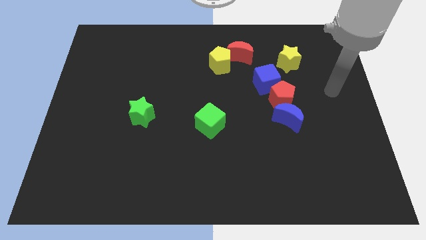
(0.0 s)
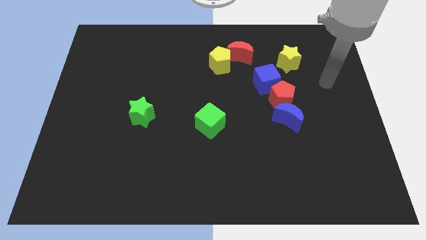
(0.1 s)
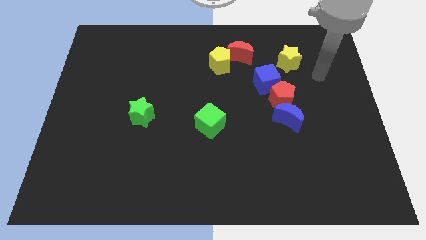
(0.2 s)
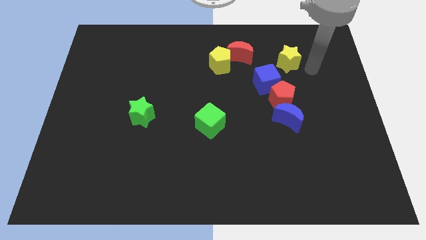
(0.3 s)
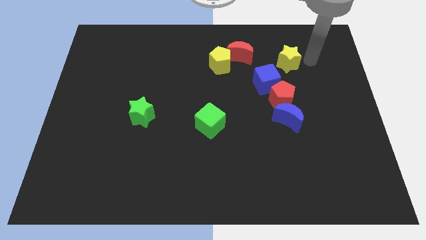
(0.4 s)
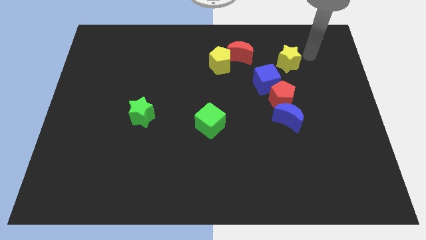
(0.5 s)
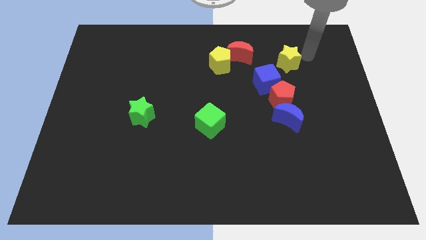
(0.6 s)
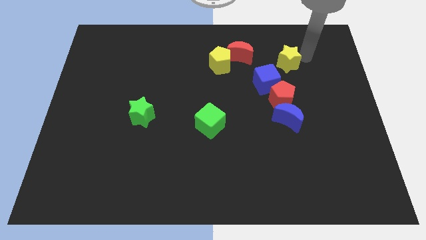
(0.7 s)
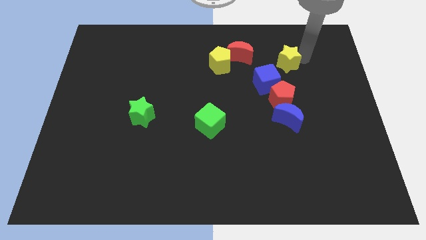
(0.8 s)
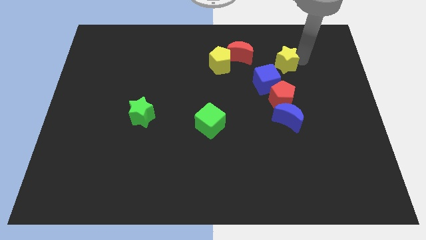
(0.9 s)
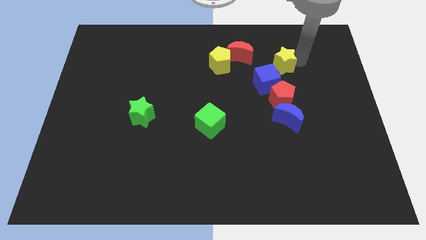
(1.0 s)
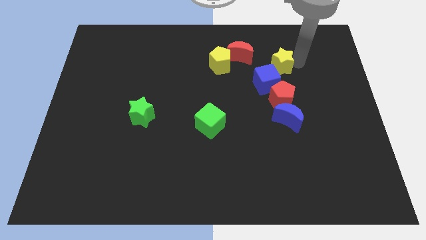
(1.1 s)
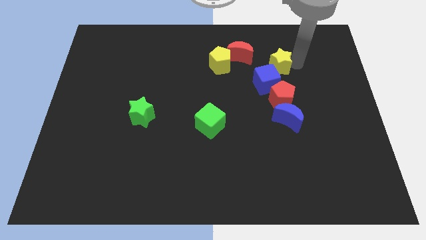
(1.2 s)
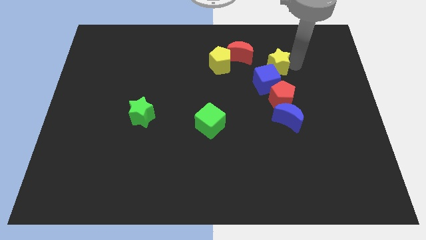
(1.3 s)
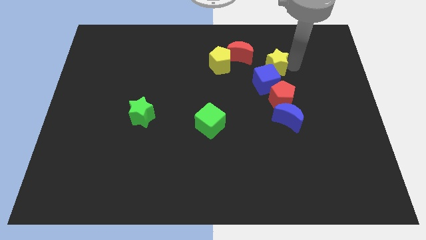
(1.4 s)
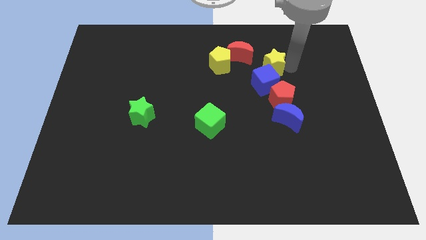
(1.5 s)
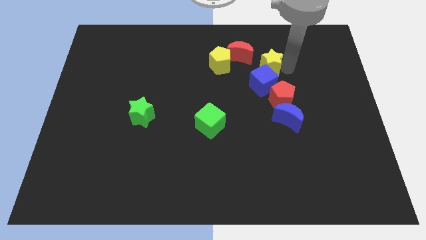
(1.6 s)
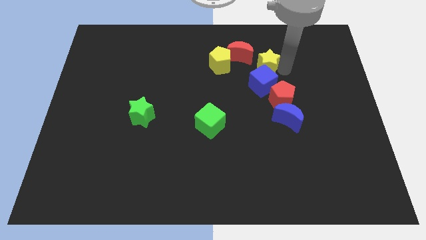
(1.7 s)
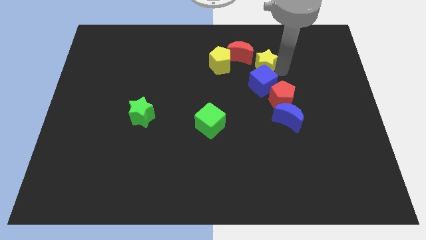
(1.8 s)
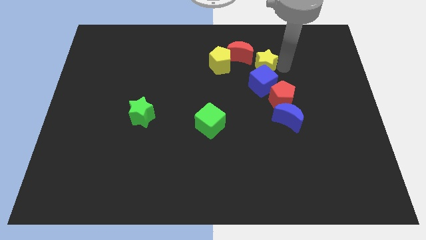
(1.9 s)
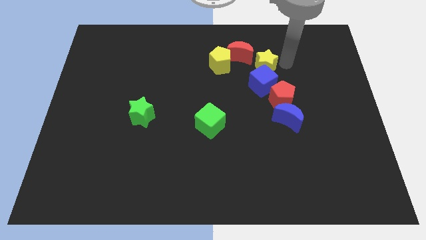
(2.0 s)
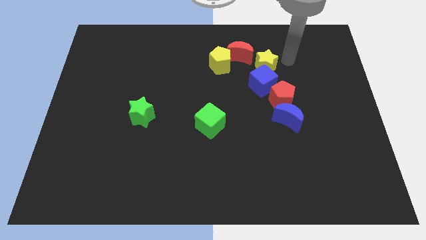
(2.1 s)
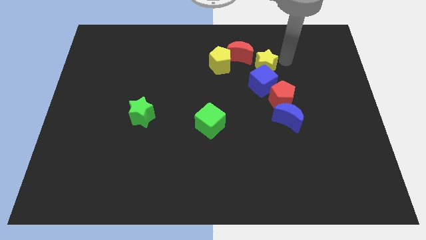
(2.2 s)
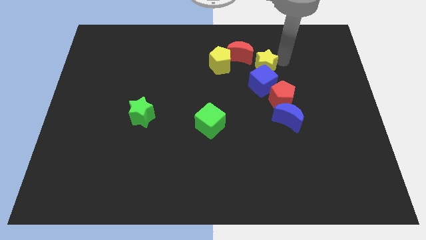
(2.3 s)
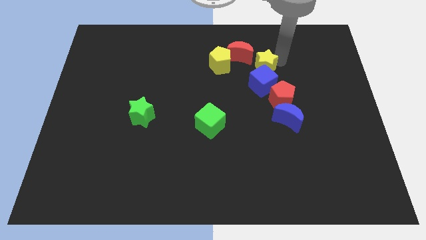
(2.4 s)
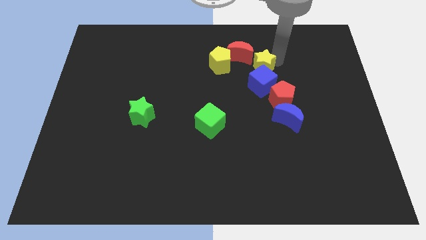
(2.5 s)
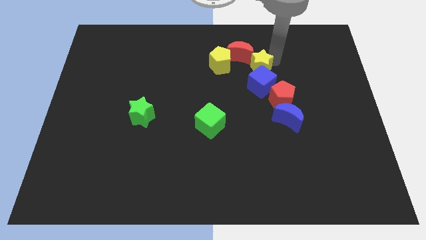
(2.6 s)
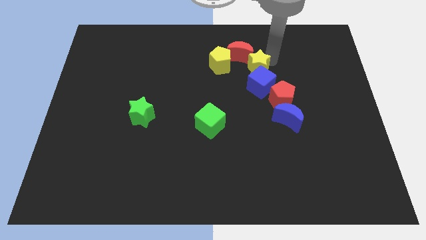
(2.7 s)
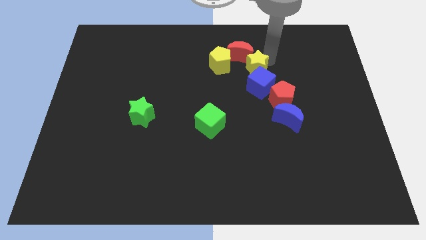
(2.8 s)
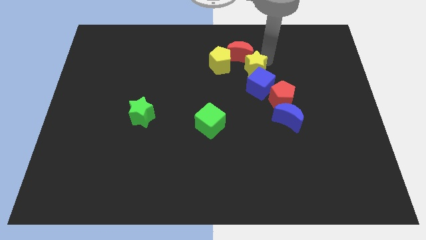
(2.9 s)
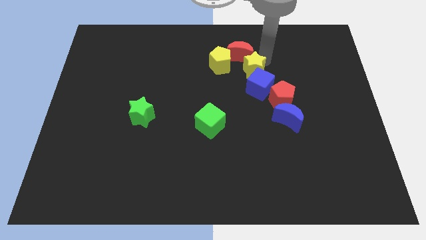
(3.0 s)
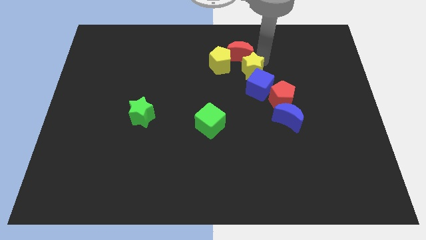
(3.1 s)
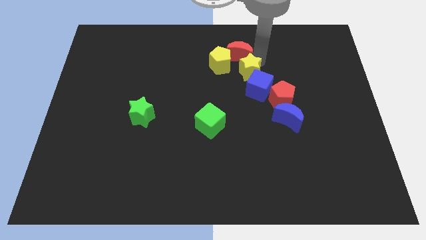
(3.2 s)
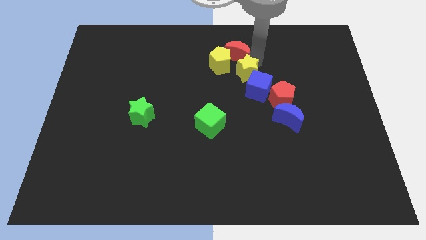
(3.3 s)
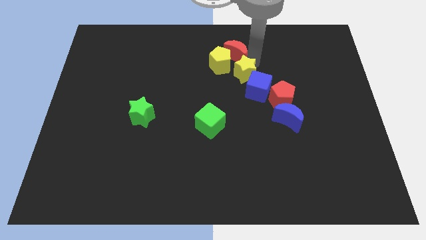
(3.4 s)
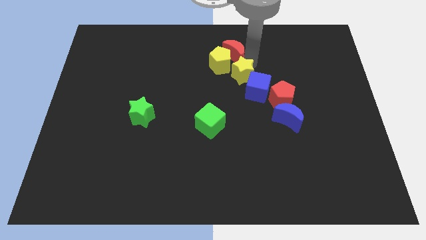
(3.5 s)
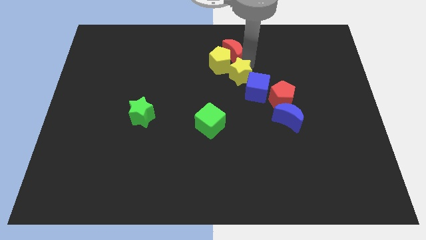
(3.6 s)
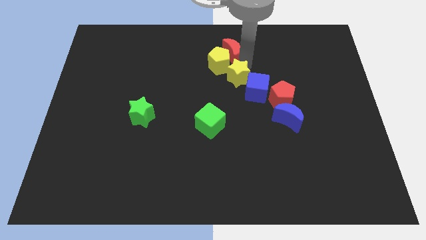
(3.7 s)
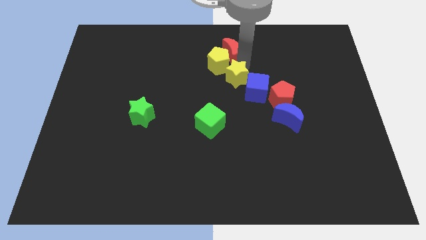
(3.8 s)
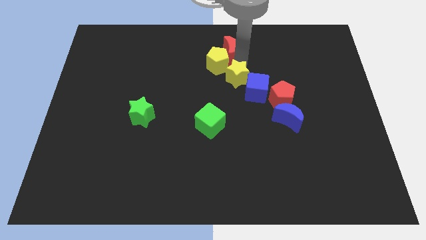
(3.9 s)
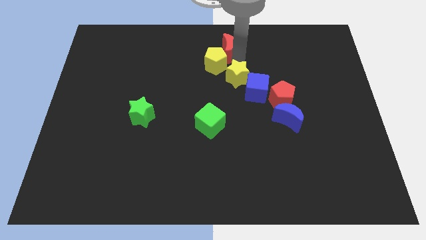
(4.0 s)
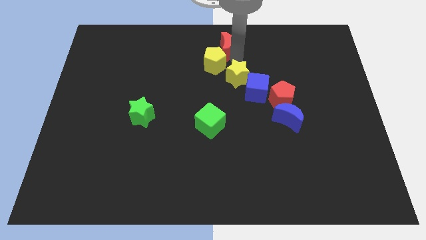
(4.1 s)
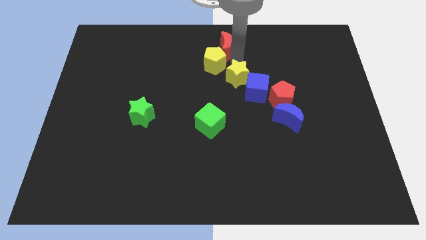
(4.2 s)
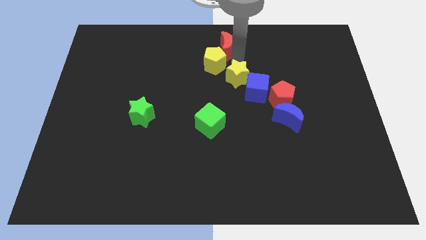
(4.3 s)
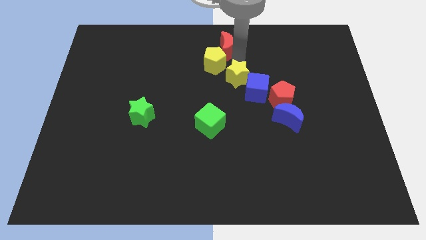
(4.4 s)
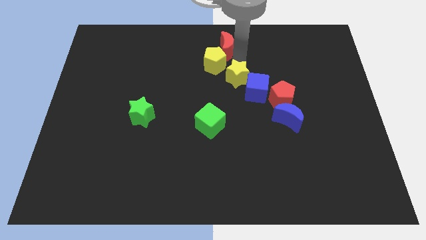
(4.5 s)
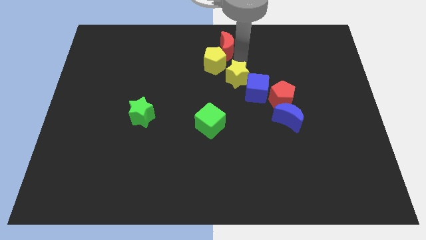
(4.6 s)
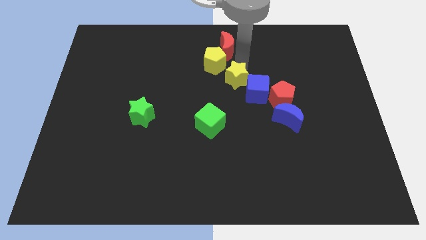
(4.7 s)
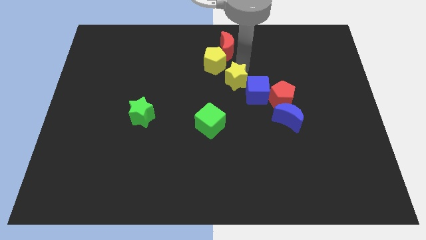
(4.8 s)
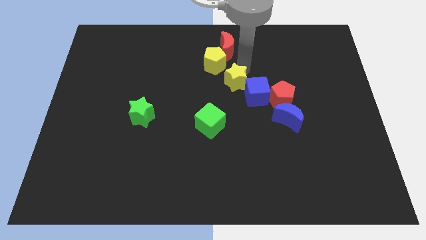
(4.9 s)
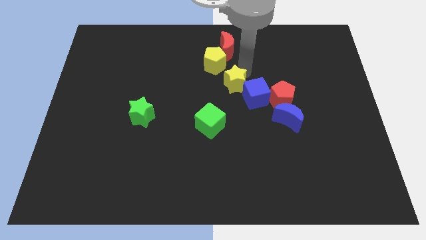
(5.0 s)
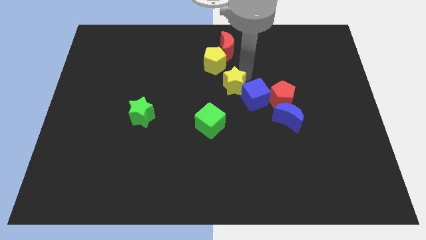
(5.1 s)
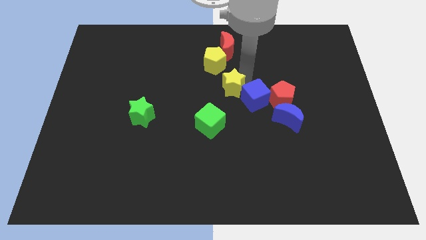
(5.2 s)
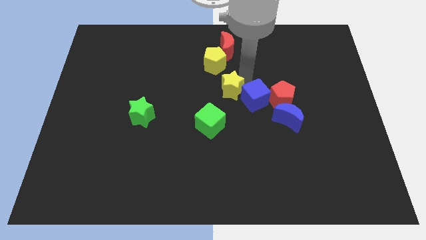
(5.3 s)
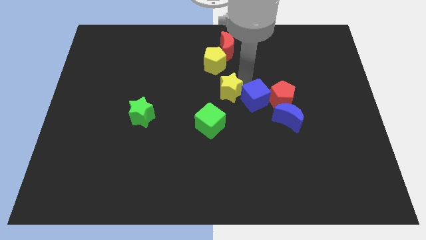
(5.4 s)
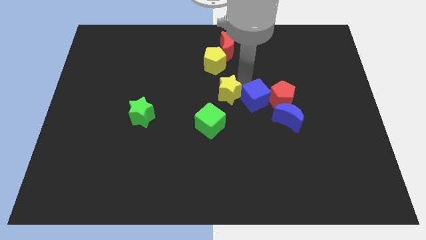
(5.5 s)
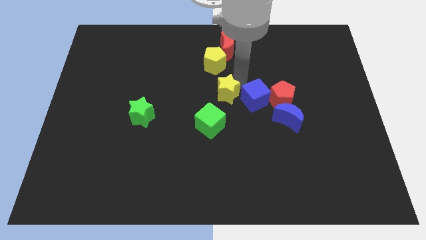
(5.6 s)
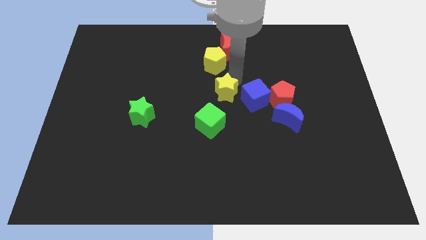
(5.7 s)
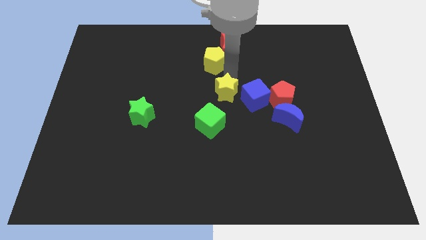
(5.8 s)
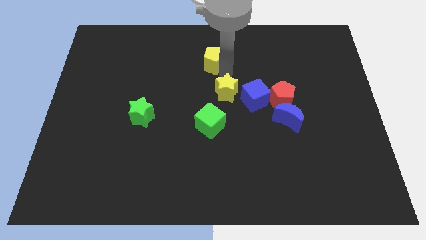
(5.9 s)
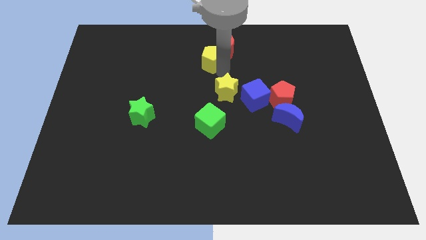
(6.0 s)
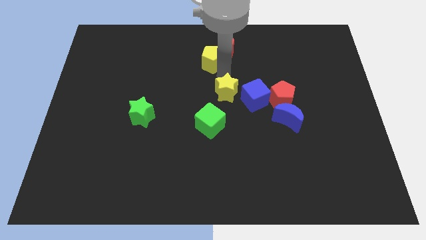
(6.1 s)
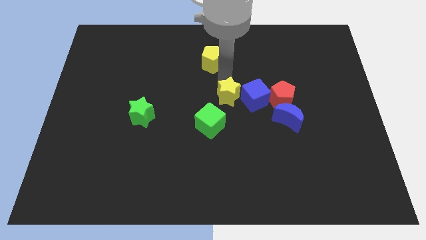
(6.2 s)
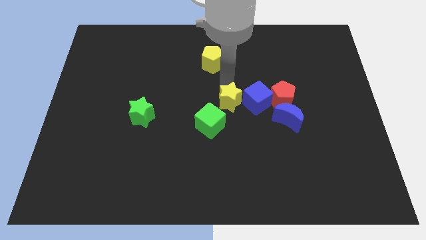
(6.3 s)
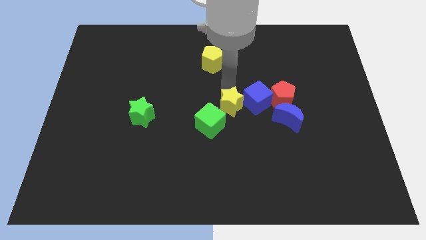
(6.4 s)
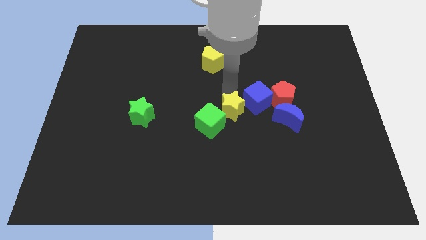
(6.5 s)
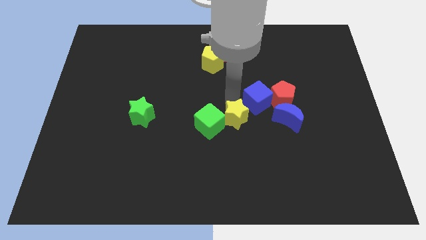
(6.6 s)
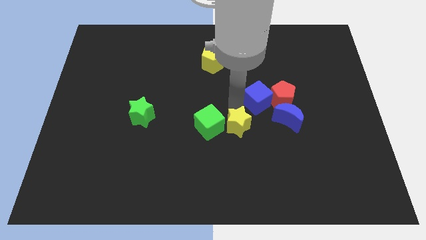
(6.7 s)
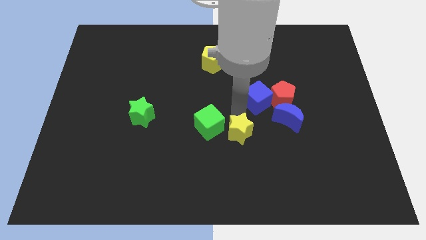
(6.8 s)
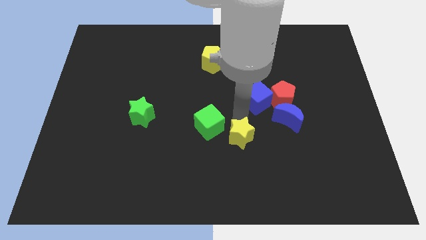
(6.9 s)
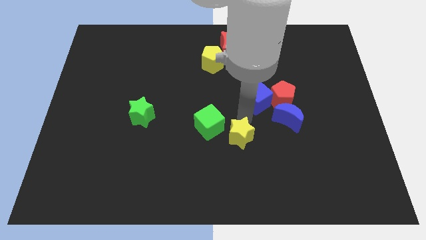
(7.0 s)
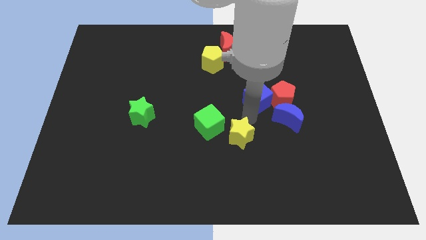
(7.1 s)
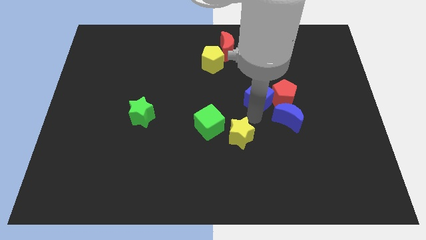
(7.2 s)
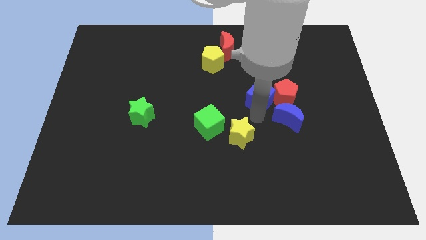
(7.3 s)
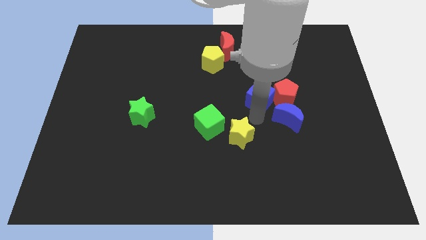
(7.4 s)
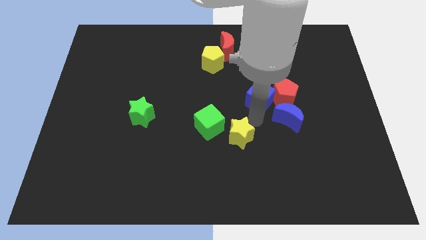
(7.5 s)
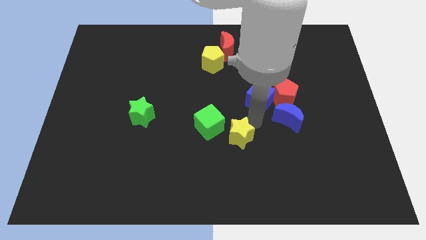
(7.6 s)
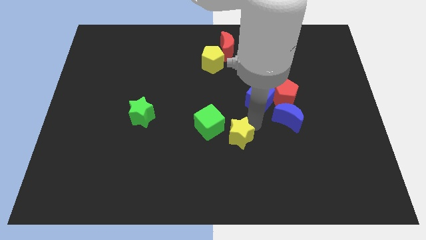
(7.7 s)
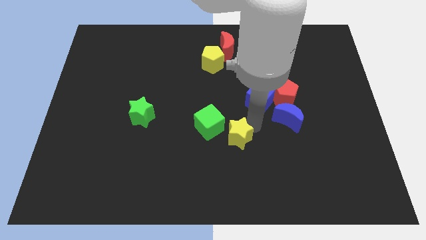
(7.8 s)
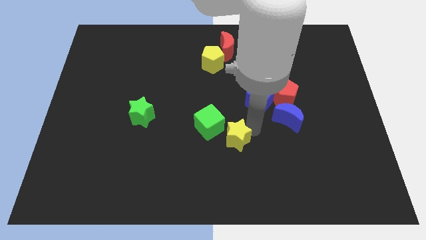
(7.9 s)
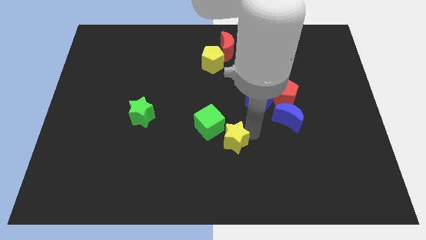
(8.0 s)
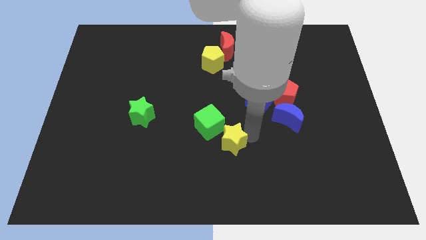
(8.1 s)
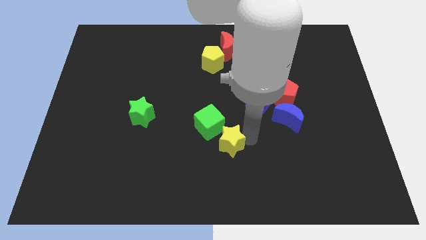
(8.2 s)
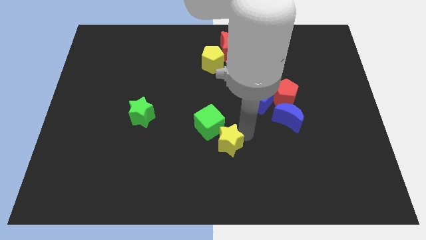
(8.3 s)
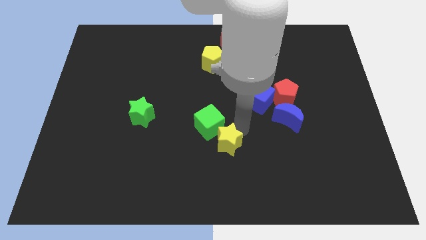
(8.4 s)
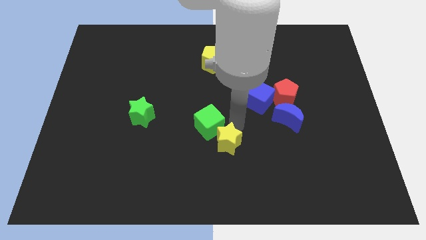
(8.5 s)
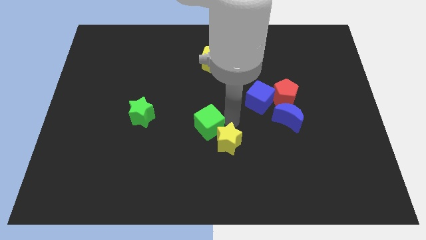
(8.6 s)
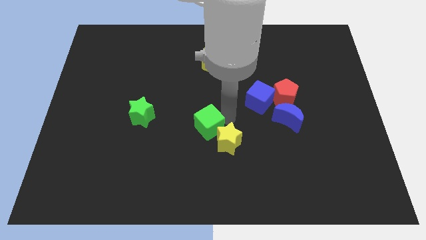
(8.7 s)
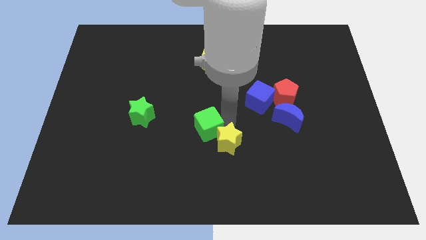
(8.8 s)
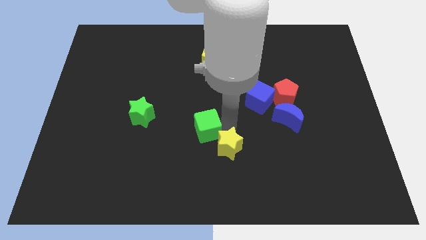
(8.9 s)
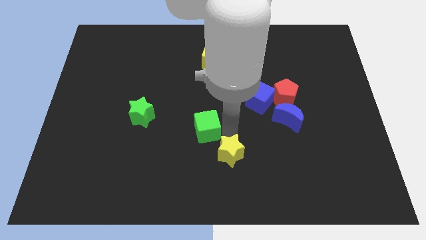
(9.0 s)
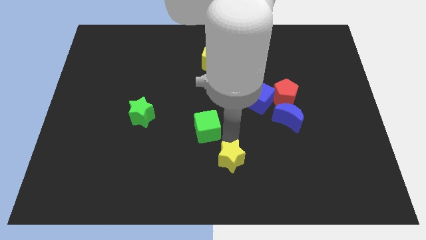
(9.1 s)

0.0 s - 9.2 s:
put the yellow star to the bottom
